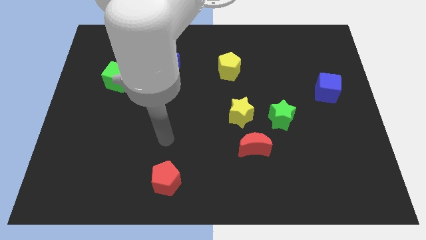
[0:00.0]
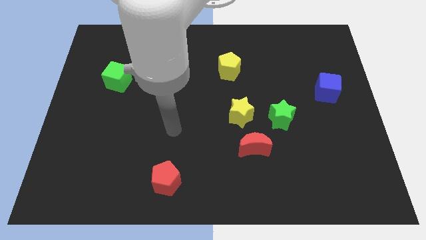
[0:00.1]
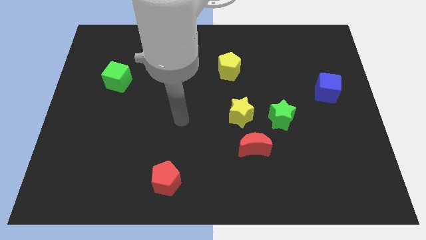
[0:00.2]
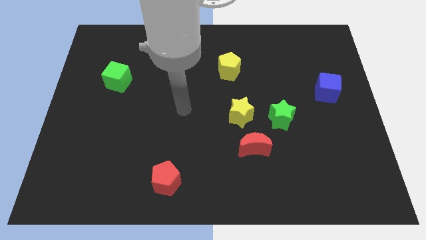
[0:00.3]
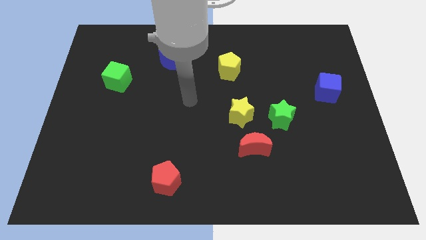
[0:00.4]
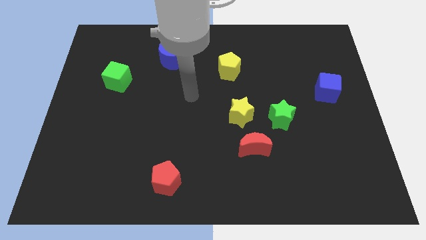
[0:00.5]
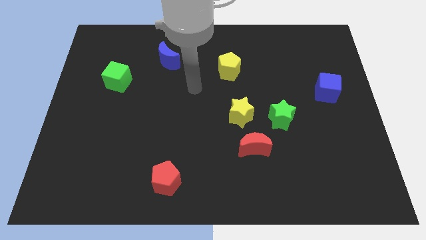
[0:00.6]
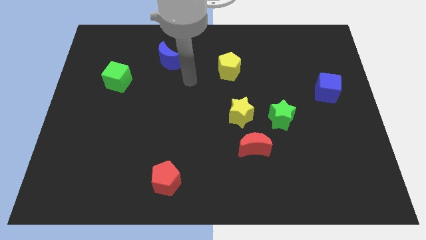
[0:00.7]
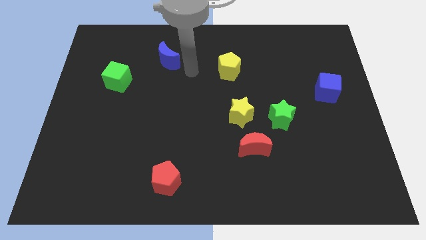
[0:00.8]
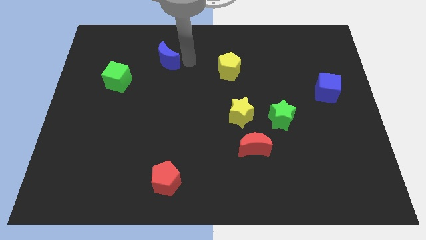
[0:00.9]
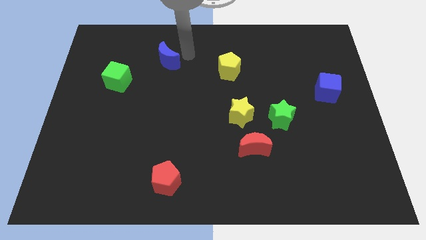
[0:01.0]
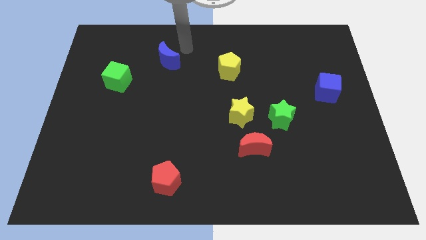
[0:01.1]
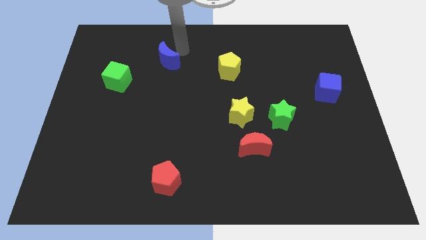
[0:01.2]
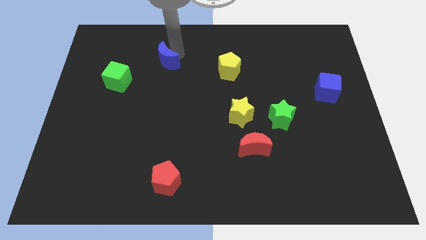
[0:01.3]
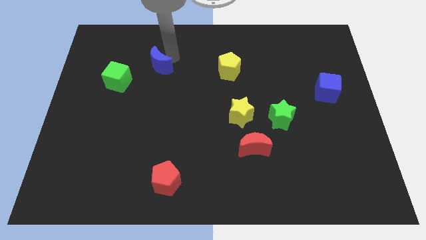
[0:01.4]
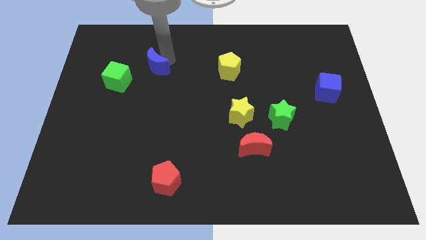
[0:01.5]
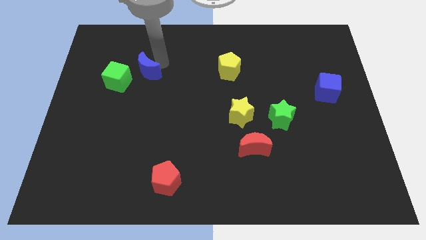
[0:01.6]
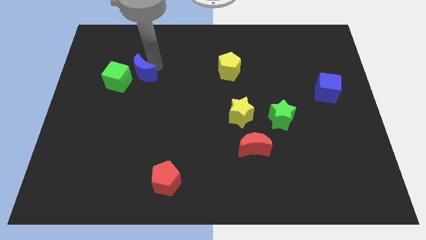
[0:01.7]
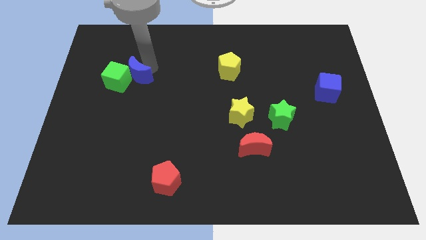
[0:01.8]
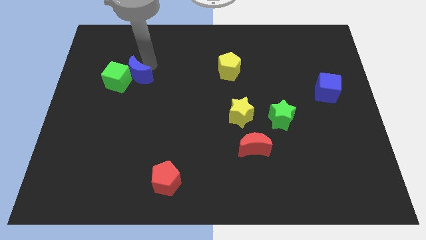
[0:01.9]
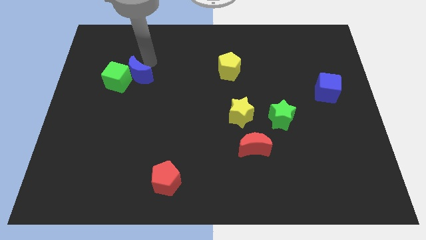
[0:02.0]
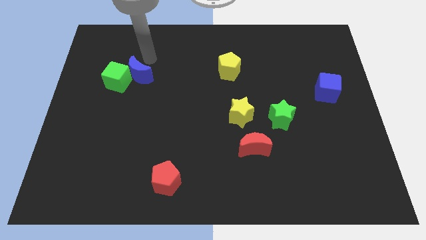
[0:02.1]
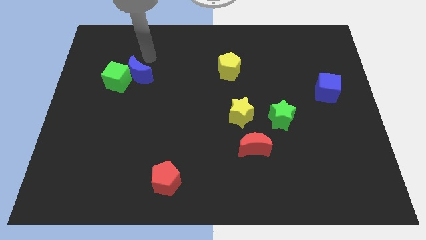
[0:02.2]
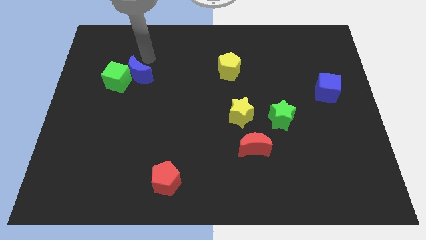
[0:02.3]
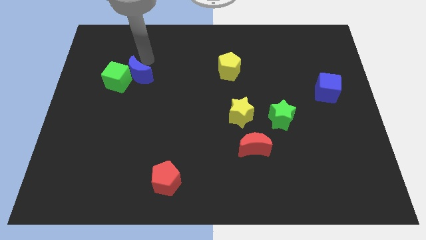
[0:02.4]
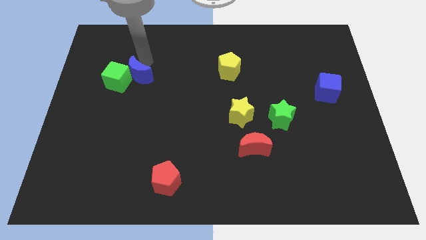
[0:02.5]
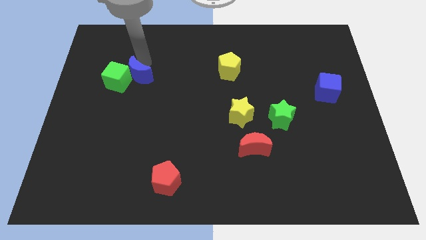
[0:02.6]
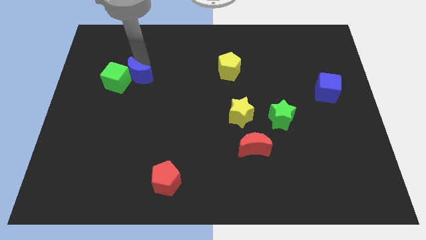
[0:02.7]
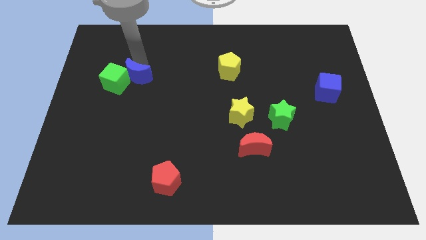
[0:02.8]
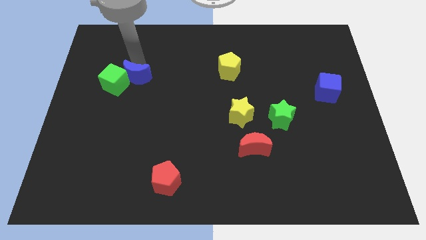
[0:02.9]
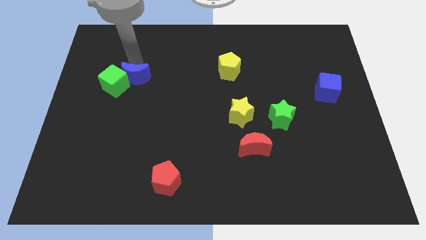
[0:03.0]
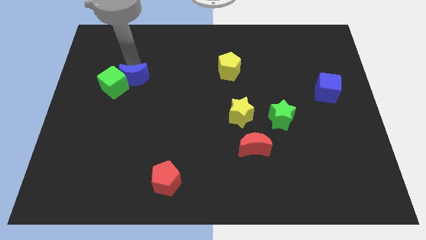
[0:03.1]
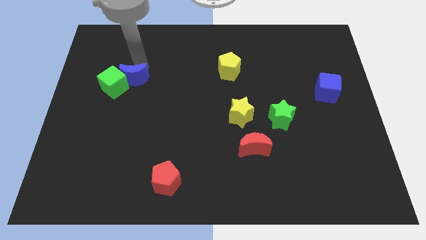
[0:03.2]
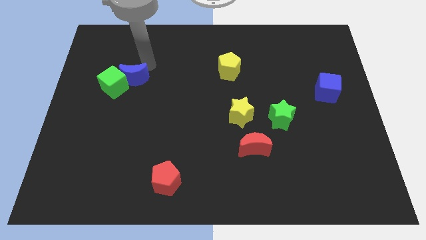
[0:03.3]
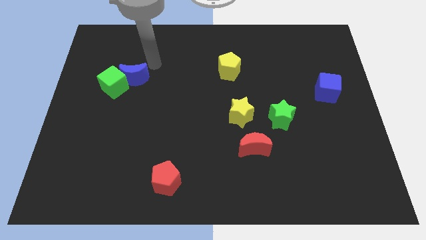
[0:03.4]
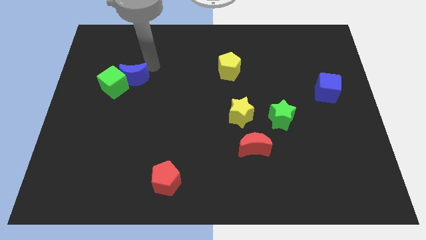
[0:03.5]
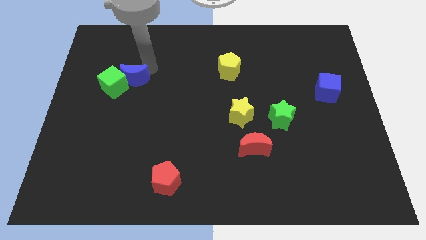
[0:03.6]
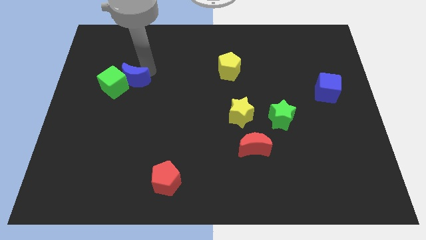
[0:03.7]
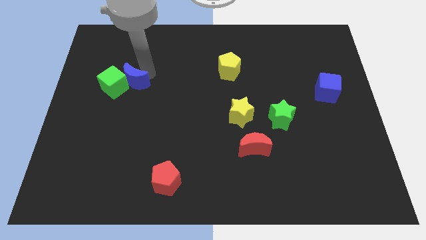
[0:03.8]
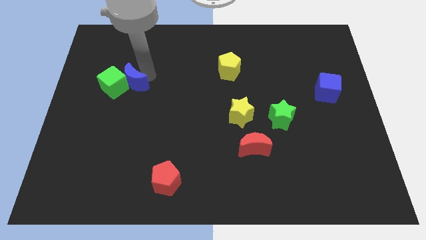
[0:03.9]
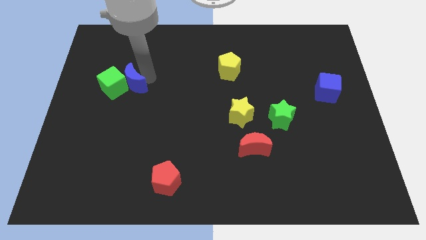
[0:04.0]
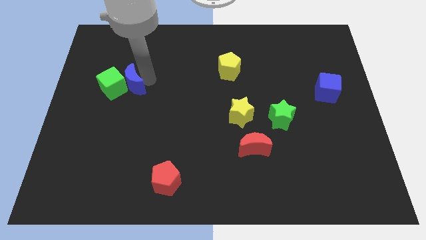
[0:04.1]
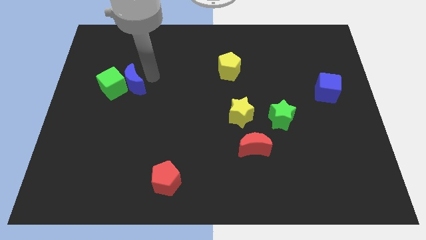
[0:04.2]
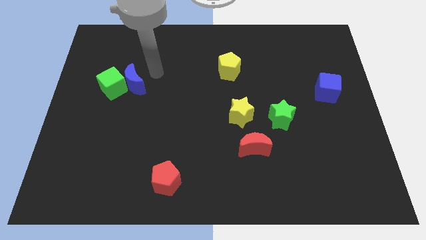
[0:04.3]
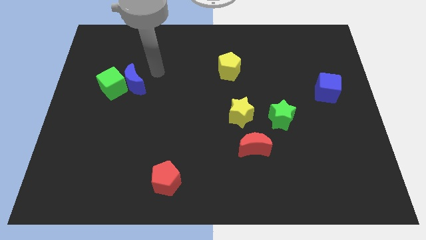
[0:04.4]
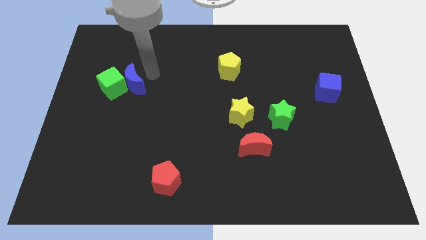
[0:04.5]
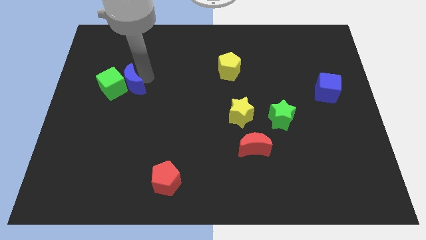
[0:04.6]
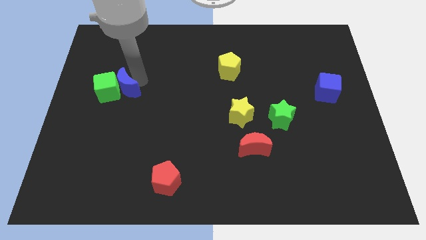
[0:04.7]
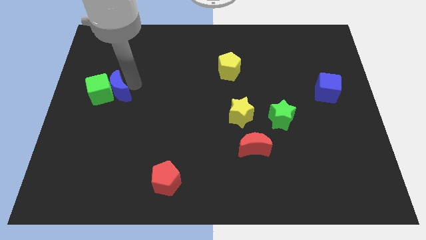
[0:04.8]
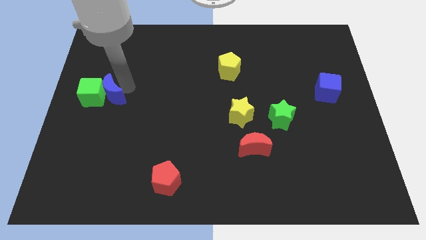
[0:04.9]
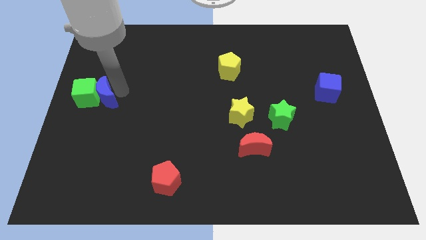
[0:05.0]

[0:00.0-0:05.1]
slide the blue moon to the center left

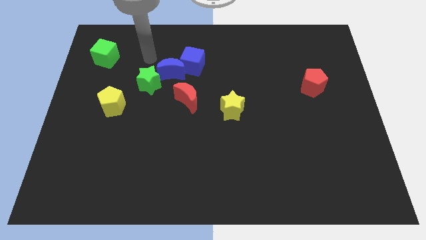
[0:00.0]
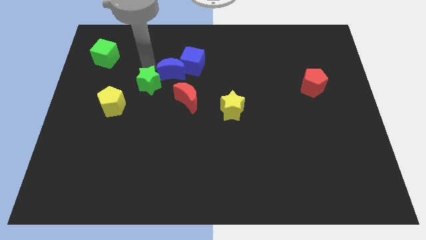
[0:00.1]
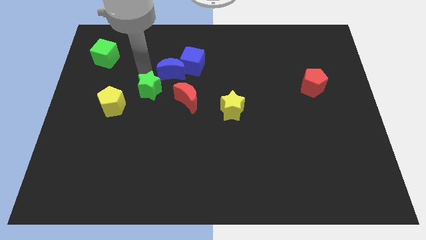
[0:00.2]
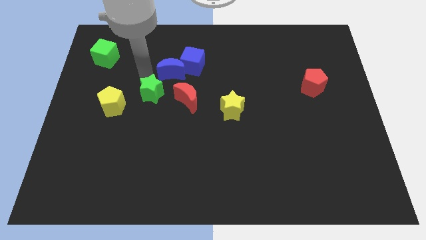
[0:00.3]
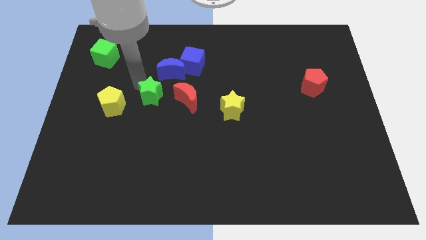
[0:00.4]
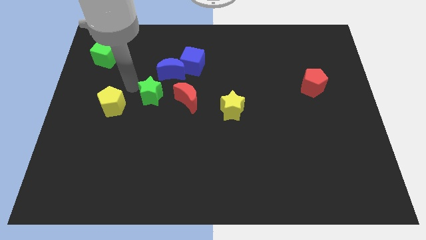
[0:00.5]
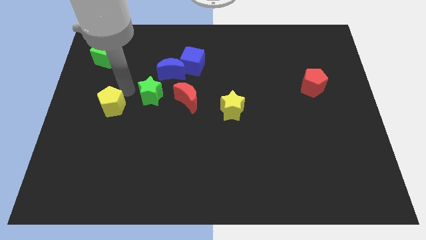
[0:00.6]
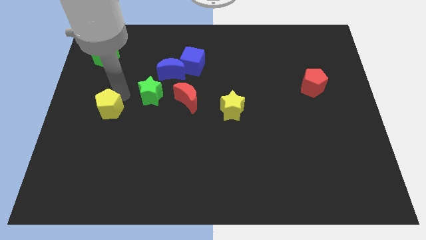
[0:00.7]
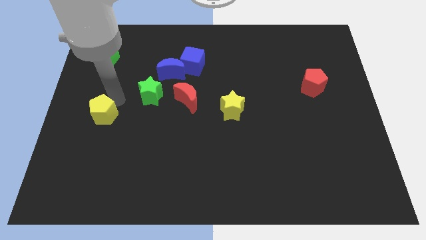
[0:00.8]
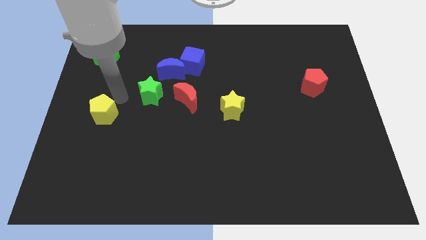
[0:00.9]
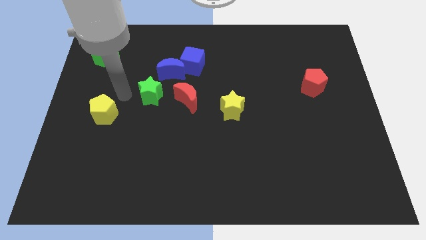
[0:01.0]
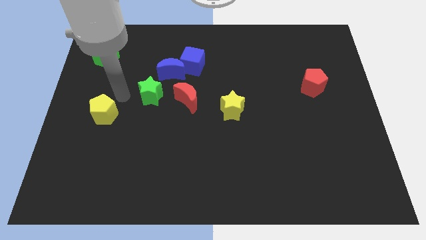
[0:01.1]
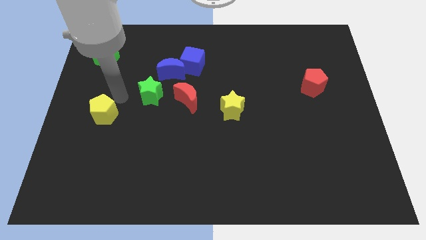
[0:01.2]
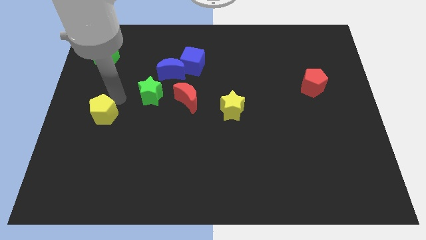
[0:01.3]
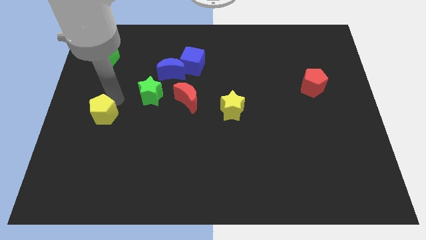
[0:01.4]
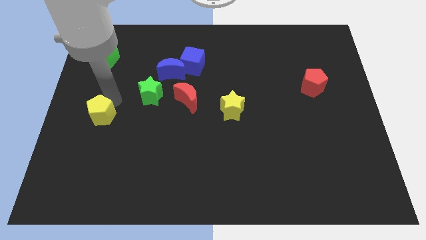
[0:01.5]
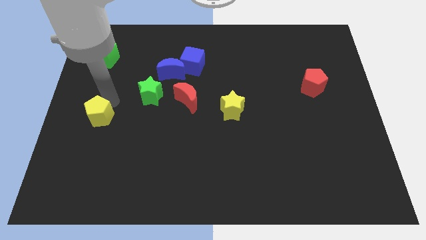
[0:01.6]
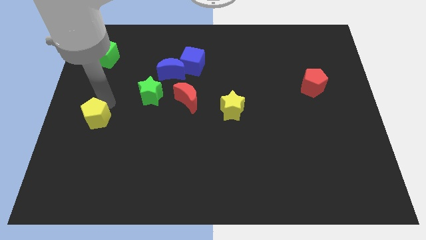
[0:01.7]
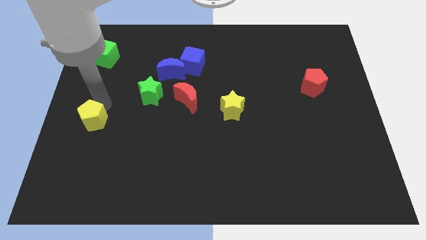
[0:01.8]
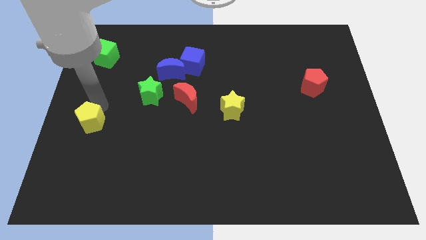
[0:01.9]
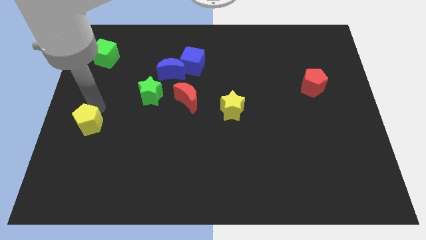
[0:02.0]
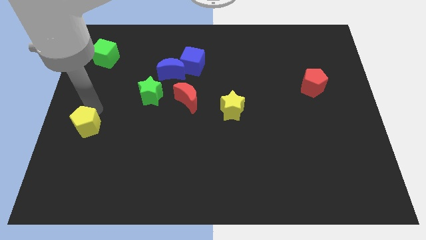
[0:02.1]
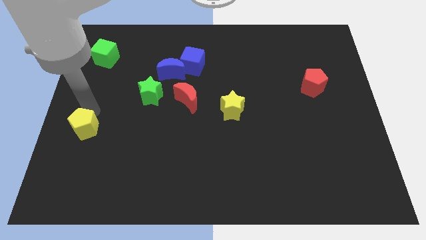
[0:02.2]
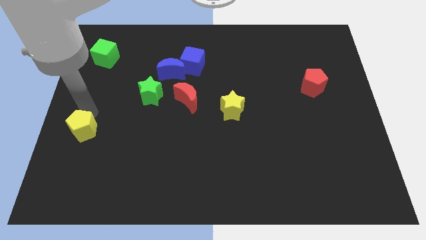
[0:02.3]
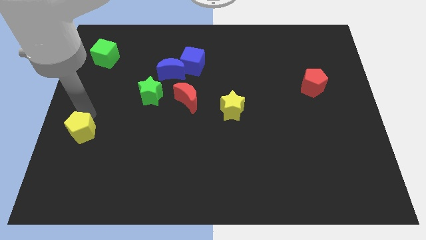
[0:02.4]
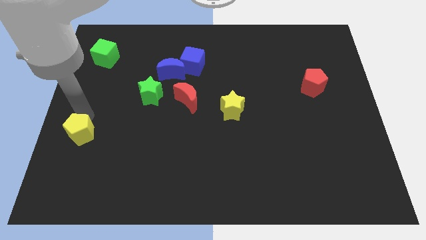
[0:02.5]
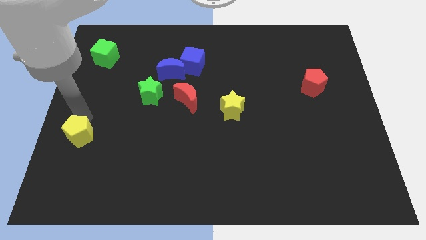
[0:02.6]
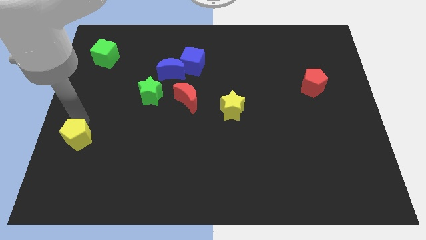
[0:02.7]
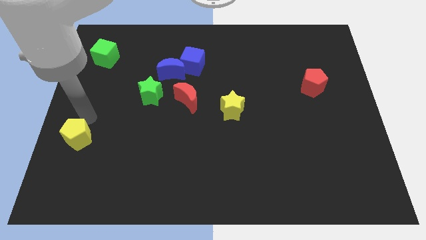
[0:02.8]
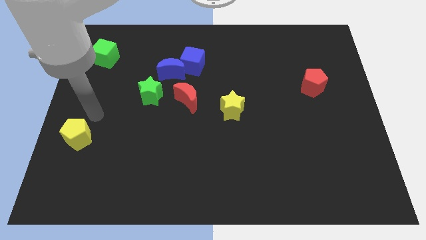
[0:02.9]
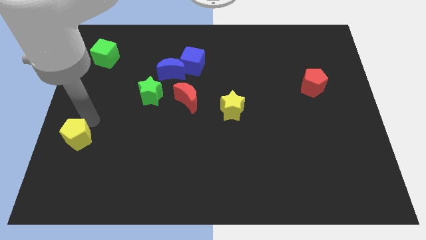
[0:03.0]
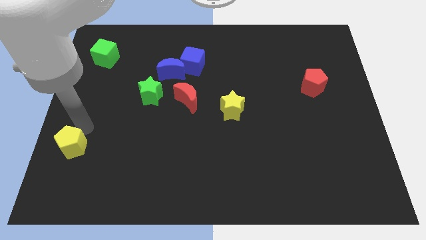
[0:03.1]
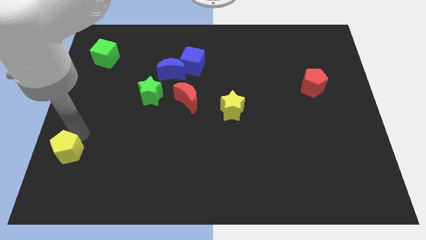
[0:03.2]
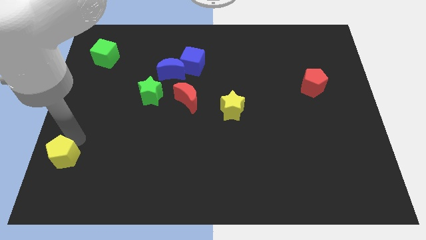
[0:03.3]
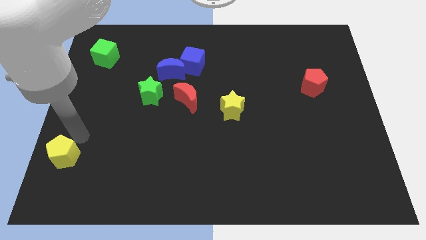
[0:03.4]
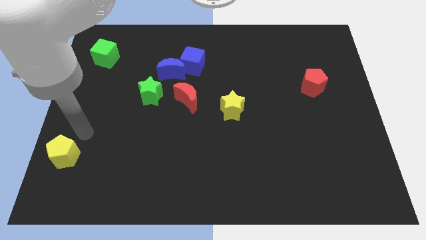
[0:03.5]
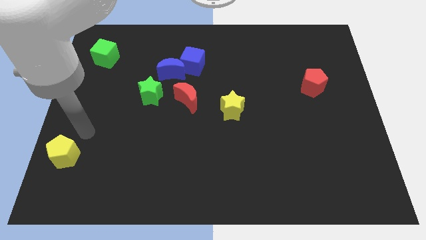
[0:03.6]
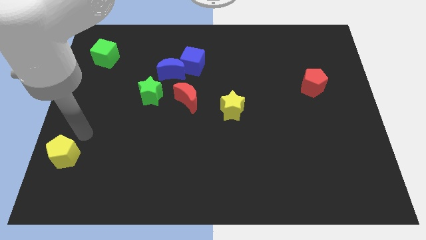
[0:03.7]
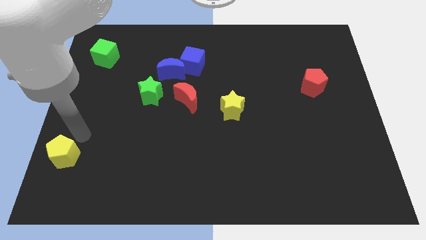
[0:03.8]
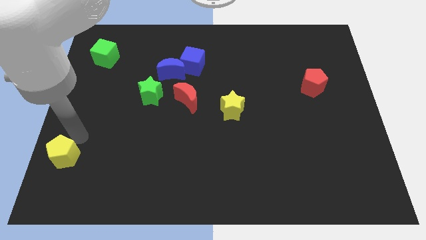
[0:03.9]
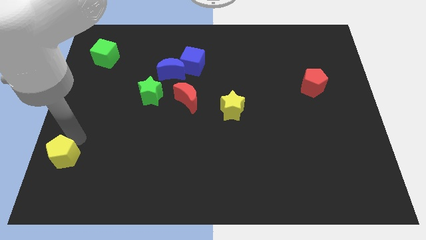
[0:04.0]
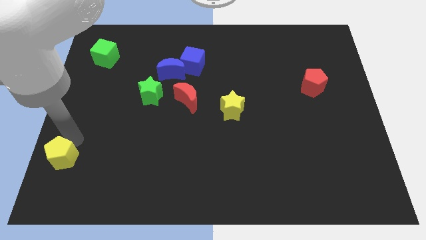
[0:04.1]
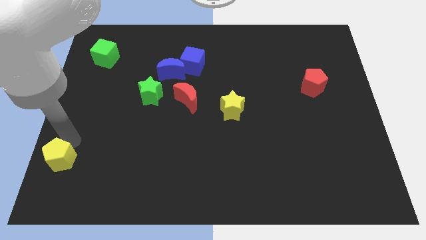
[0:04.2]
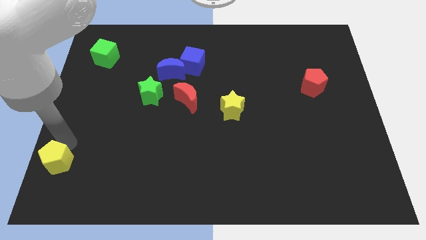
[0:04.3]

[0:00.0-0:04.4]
put the yellow pentagon to the lower left corner
